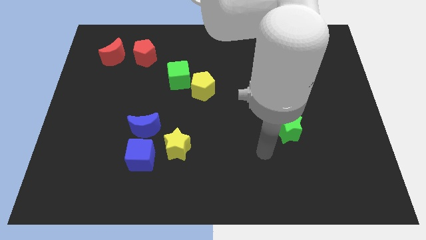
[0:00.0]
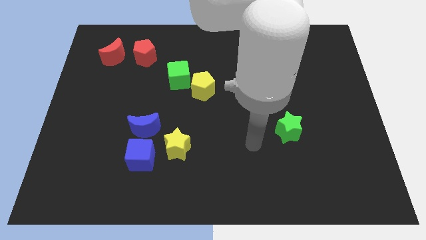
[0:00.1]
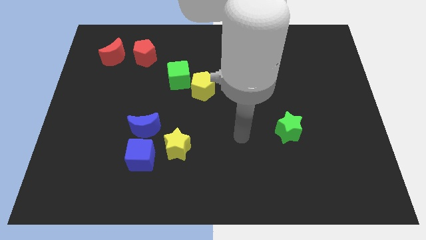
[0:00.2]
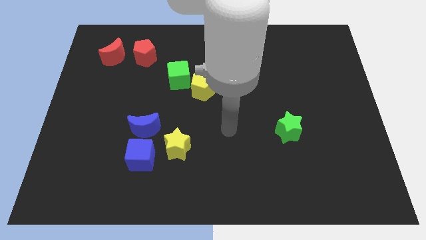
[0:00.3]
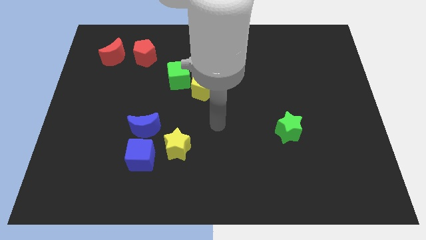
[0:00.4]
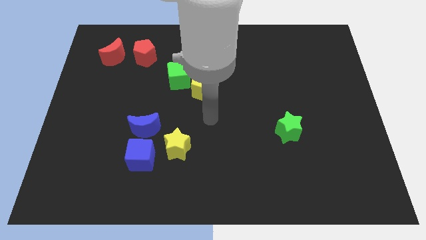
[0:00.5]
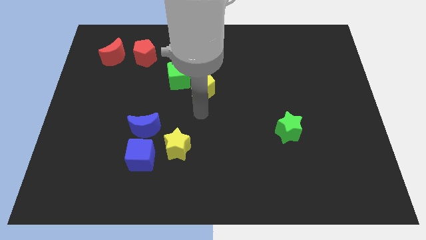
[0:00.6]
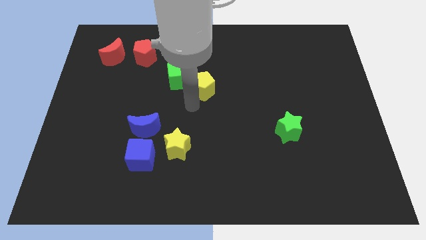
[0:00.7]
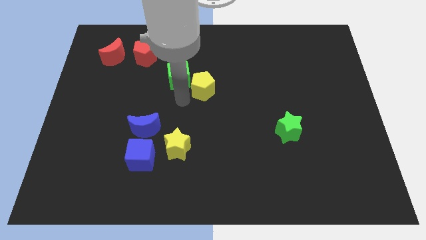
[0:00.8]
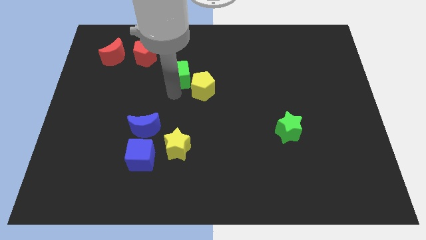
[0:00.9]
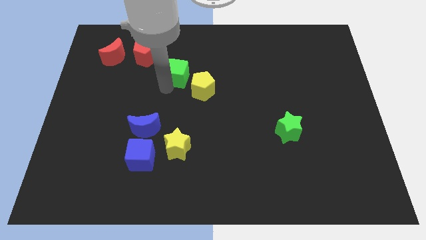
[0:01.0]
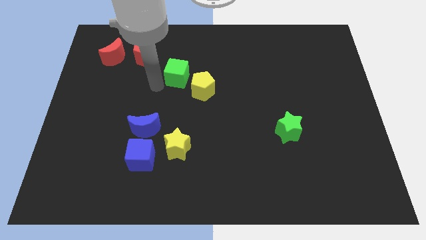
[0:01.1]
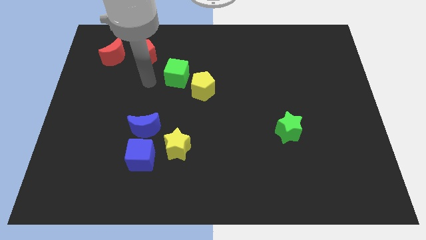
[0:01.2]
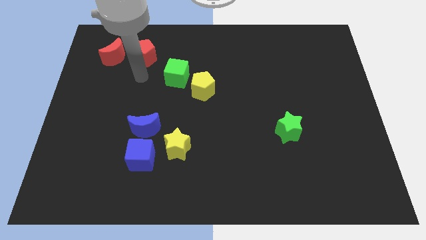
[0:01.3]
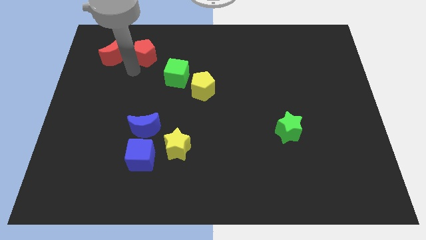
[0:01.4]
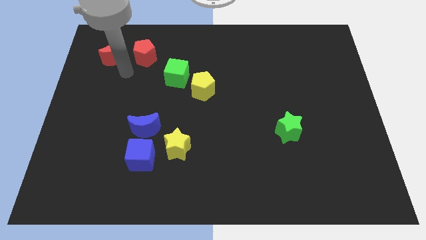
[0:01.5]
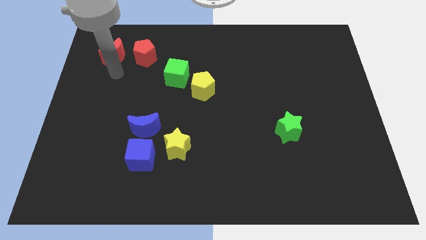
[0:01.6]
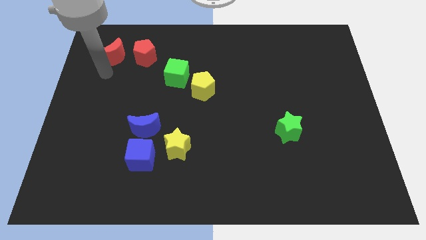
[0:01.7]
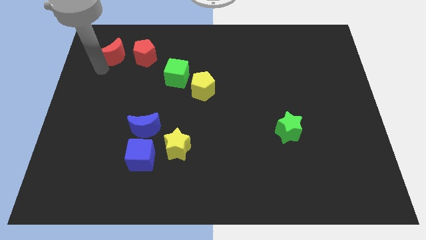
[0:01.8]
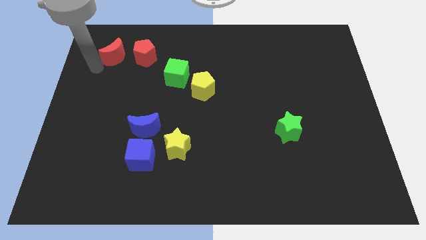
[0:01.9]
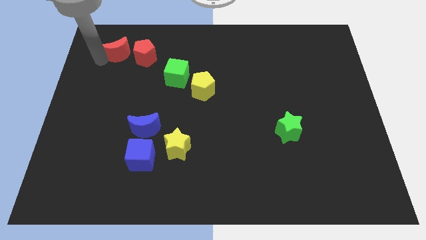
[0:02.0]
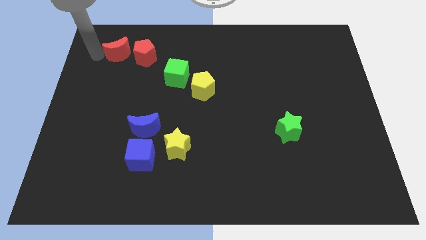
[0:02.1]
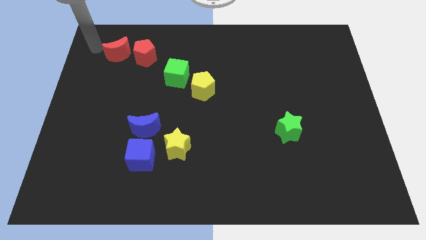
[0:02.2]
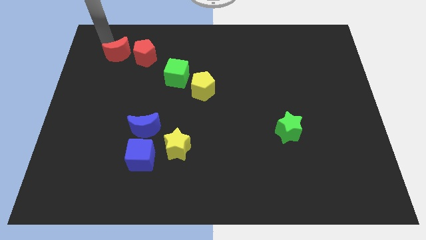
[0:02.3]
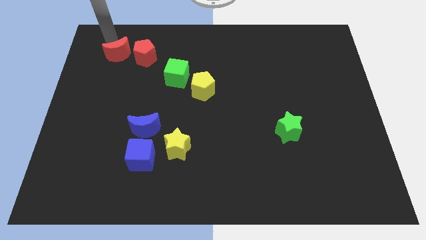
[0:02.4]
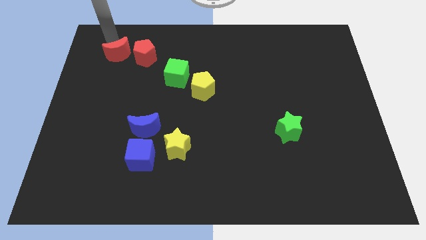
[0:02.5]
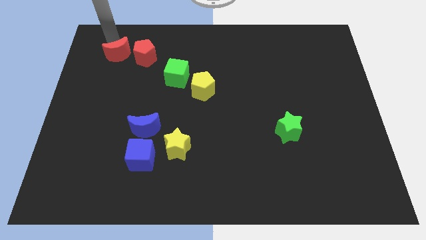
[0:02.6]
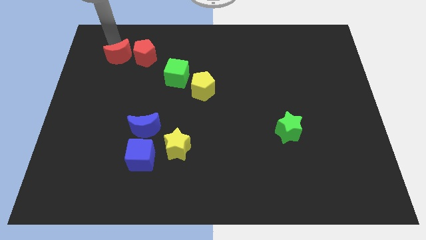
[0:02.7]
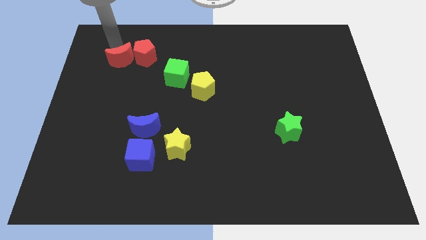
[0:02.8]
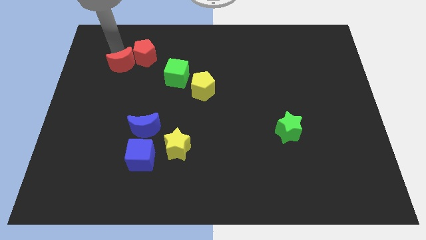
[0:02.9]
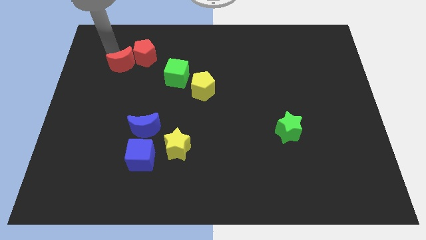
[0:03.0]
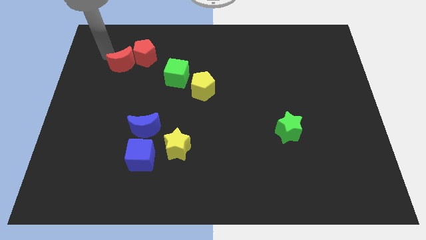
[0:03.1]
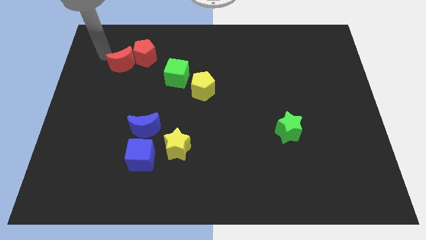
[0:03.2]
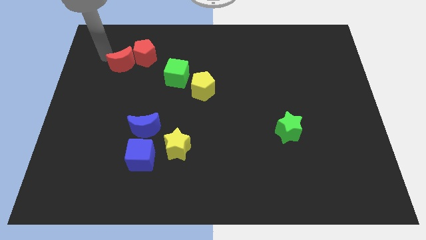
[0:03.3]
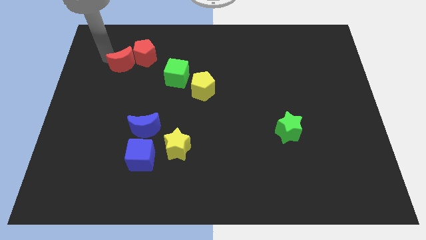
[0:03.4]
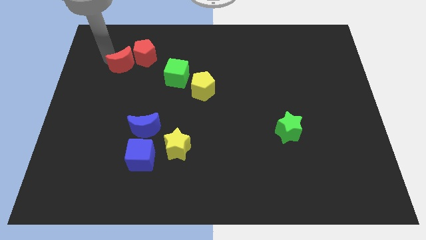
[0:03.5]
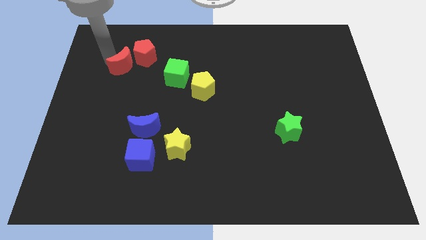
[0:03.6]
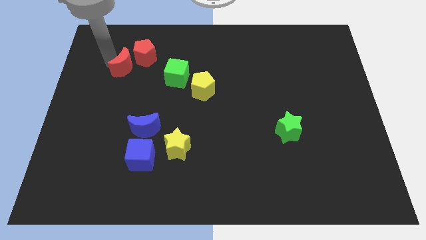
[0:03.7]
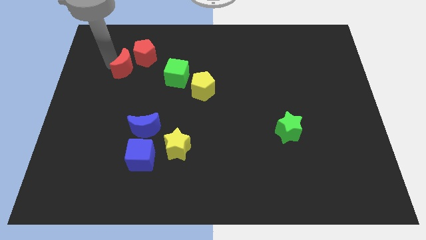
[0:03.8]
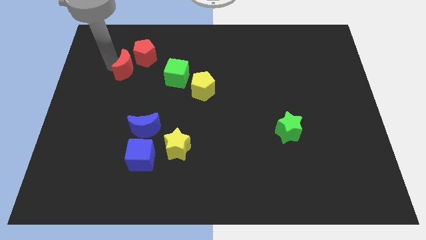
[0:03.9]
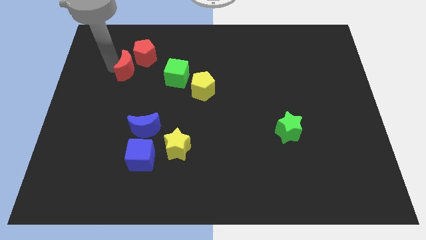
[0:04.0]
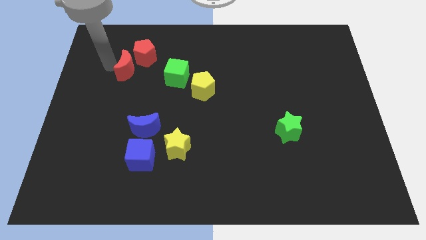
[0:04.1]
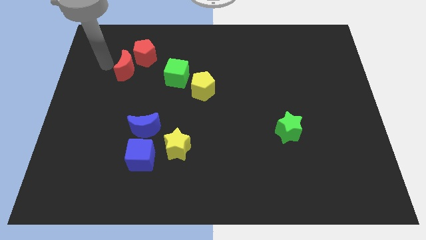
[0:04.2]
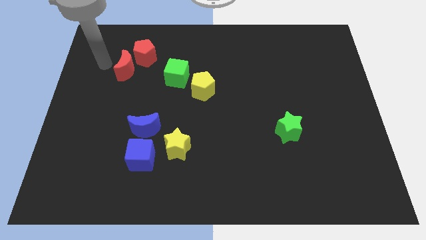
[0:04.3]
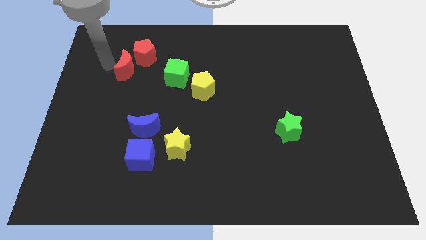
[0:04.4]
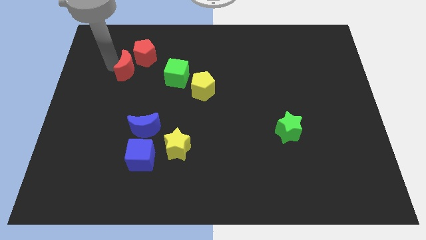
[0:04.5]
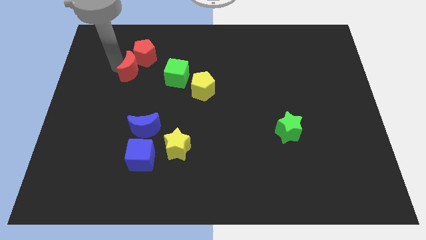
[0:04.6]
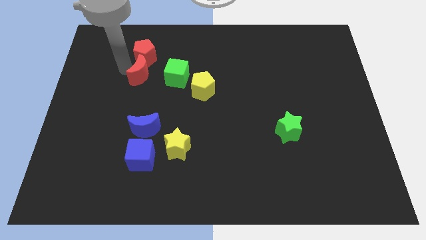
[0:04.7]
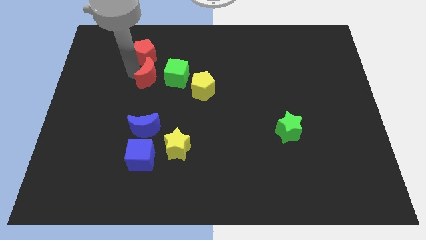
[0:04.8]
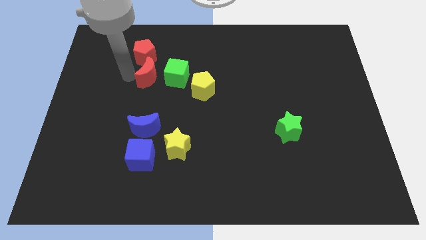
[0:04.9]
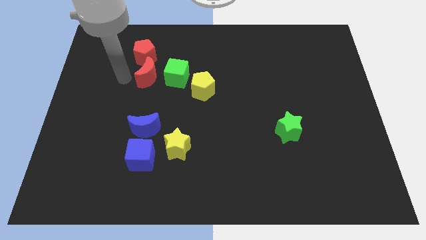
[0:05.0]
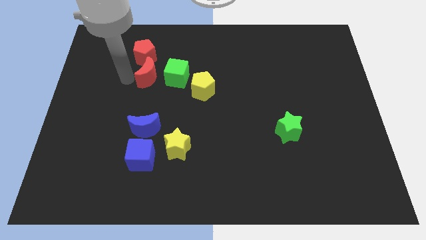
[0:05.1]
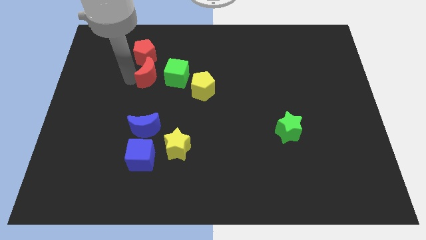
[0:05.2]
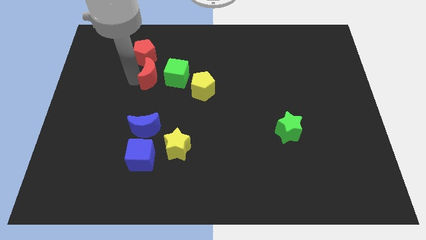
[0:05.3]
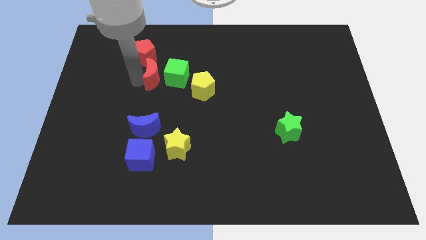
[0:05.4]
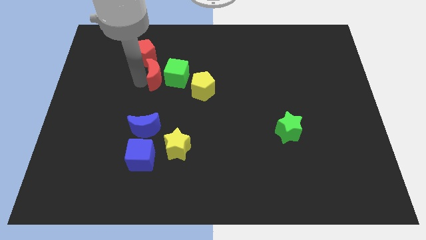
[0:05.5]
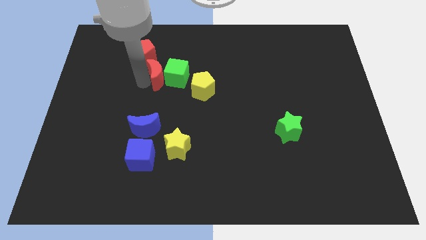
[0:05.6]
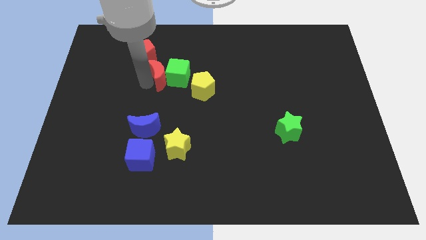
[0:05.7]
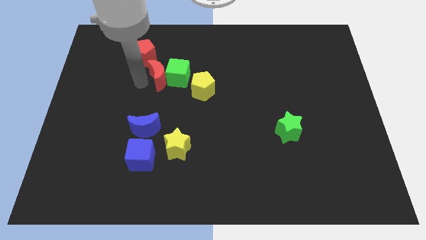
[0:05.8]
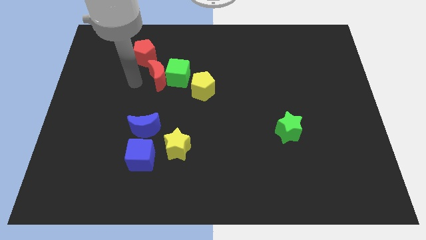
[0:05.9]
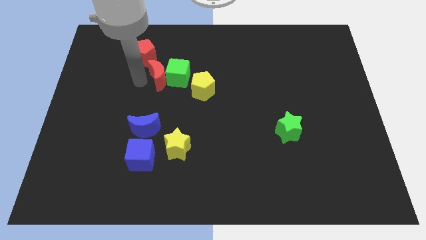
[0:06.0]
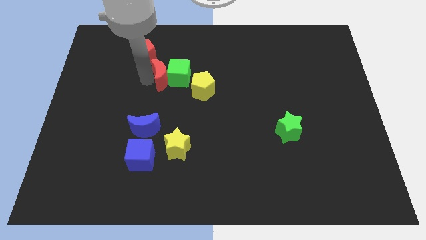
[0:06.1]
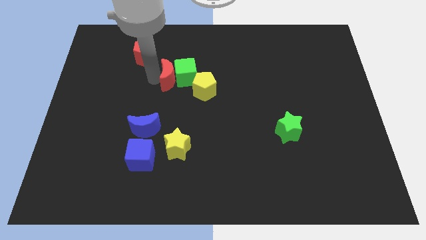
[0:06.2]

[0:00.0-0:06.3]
push the red moon to the top left of the yellow pentagon

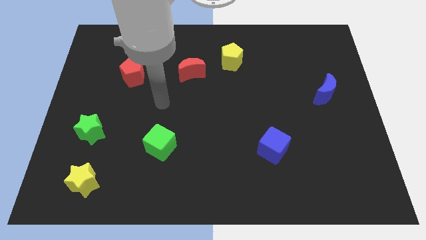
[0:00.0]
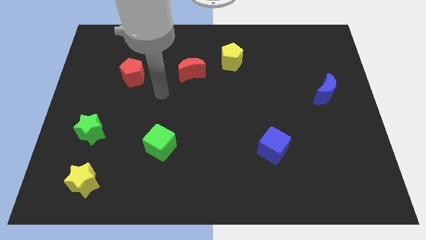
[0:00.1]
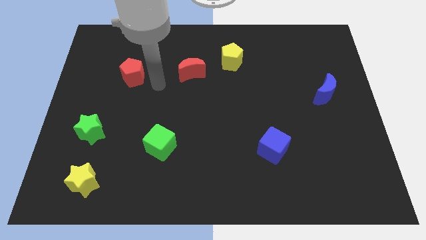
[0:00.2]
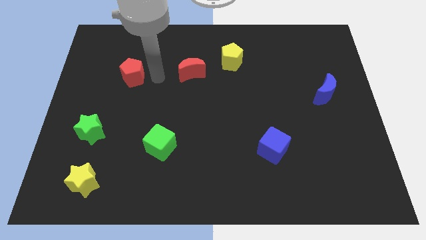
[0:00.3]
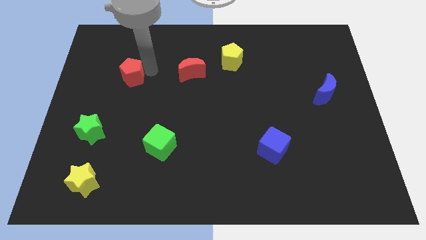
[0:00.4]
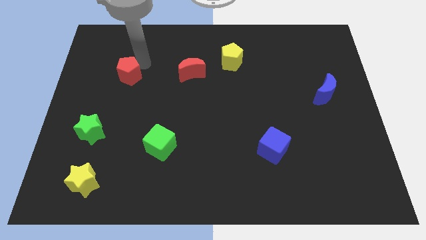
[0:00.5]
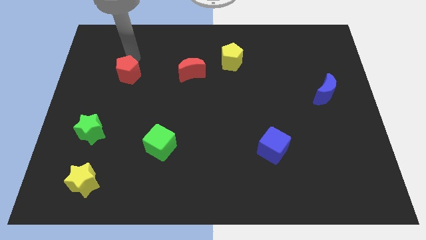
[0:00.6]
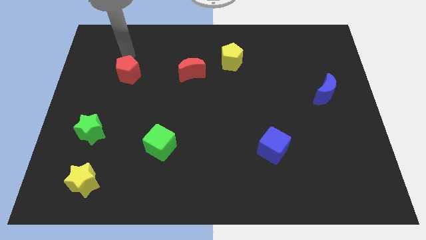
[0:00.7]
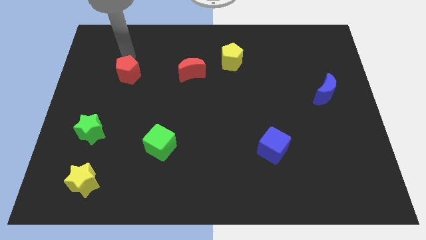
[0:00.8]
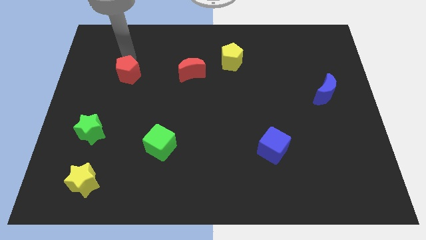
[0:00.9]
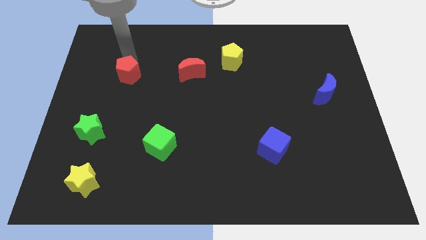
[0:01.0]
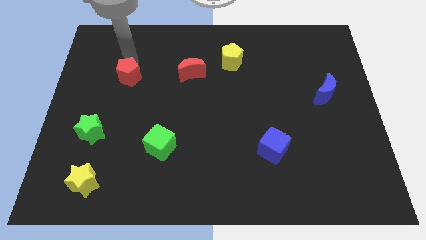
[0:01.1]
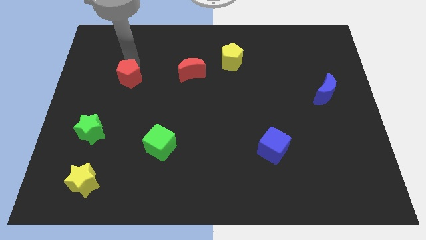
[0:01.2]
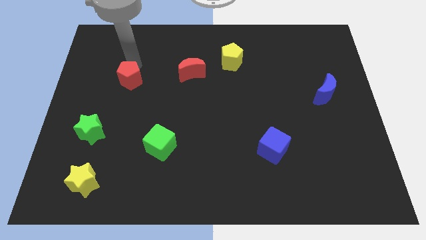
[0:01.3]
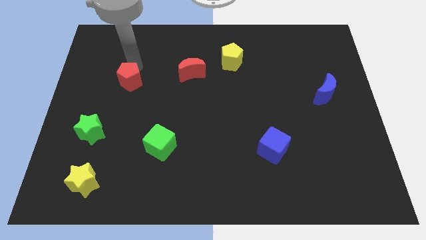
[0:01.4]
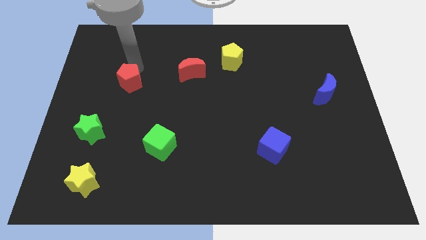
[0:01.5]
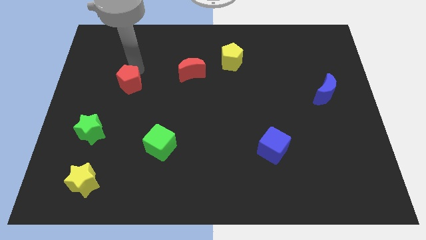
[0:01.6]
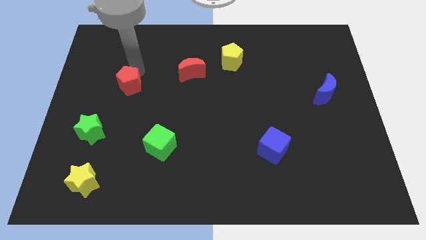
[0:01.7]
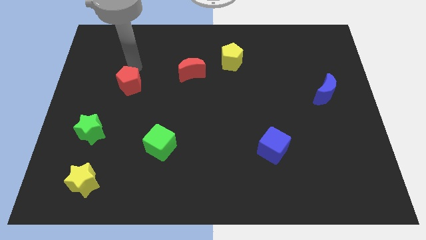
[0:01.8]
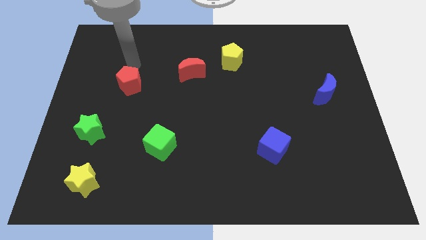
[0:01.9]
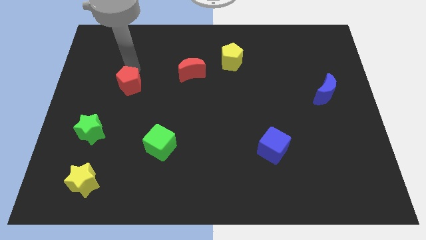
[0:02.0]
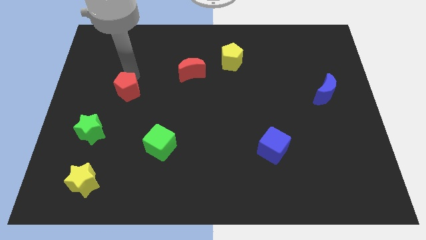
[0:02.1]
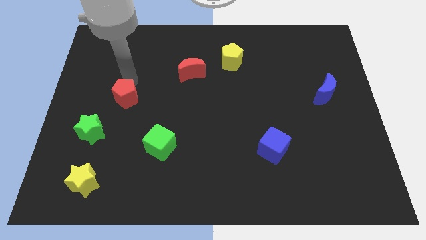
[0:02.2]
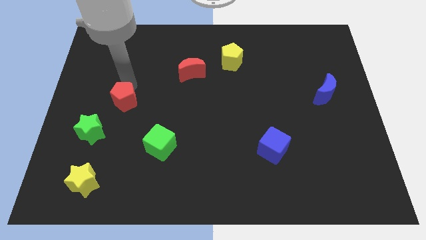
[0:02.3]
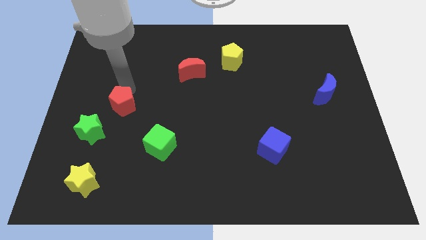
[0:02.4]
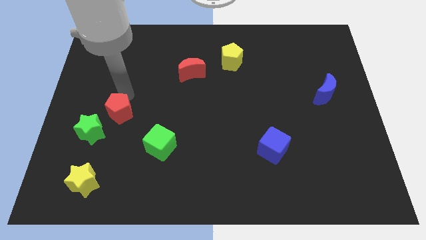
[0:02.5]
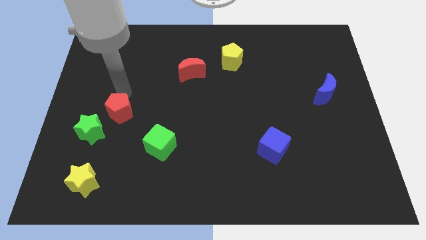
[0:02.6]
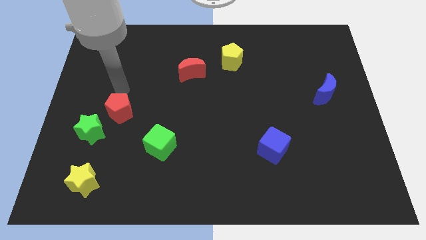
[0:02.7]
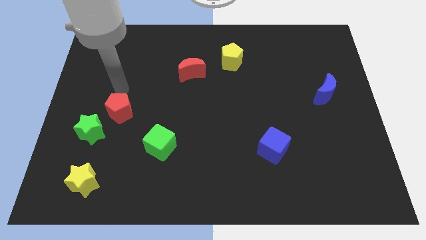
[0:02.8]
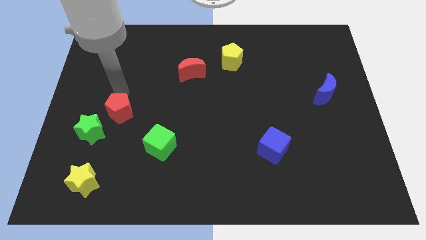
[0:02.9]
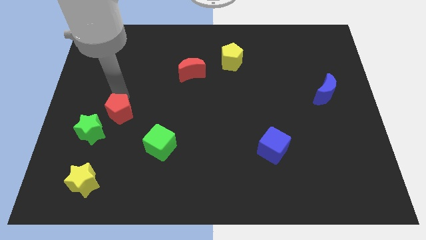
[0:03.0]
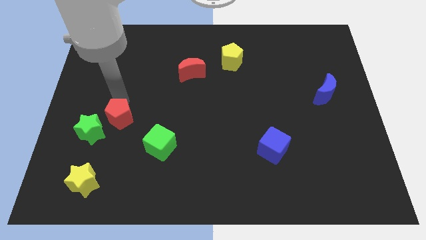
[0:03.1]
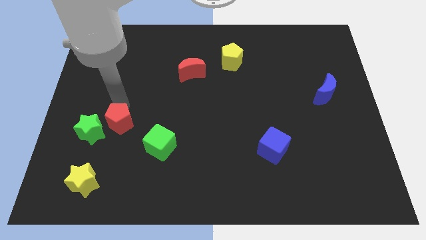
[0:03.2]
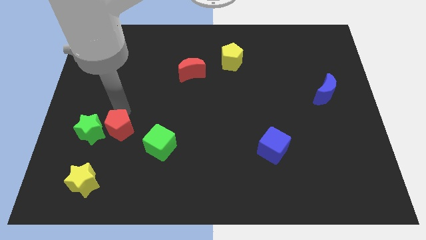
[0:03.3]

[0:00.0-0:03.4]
put the red pentagon to the left of the green cube
